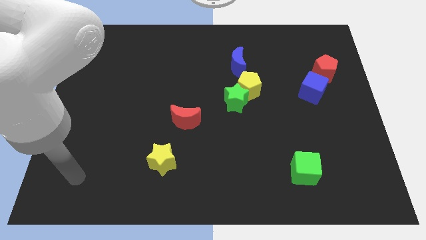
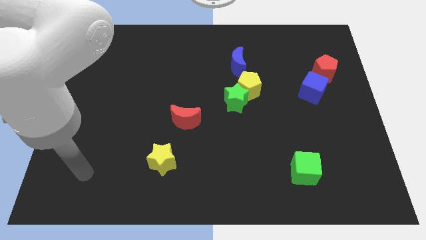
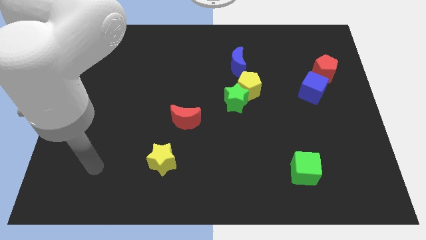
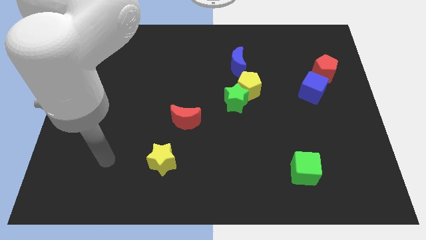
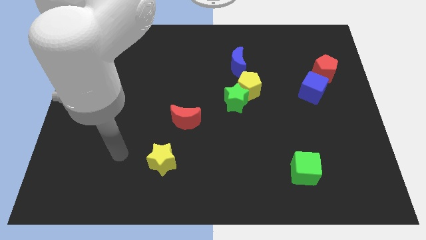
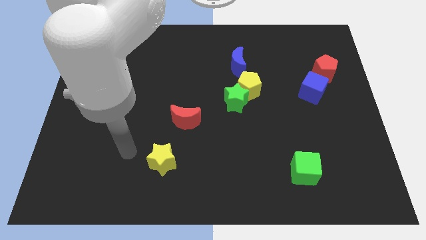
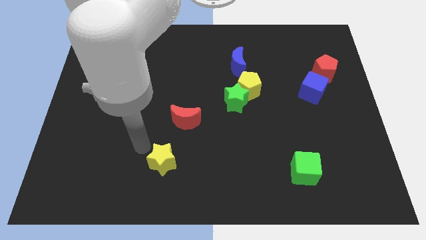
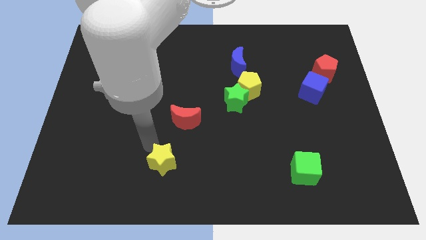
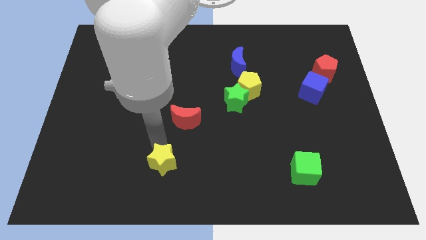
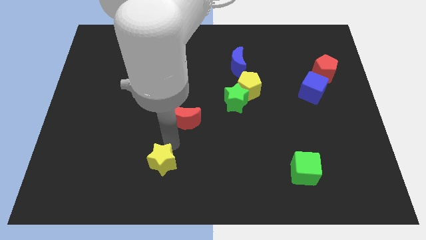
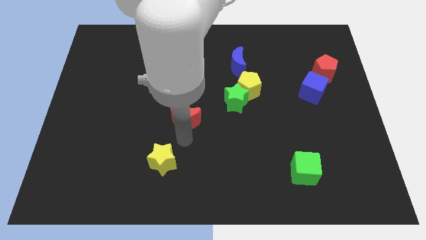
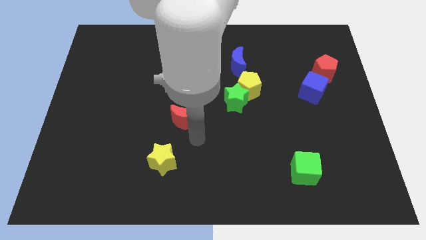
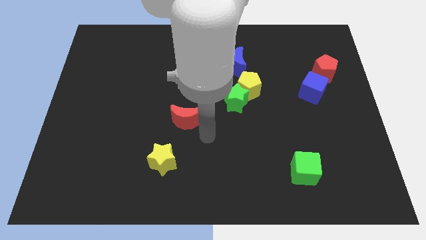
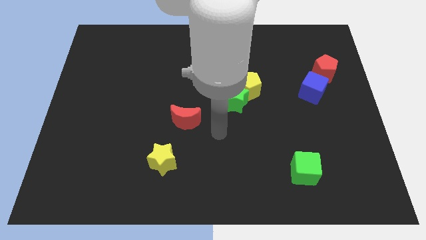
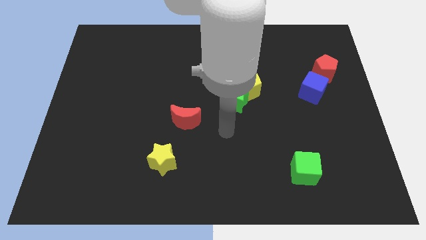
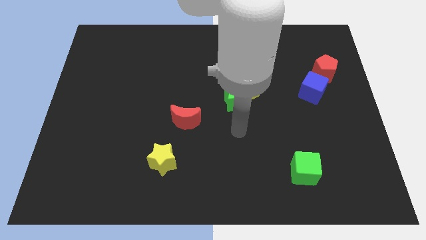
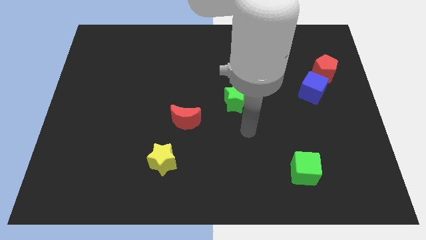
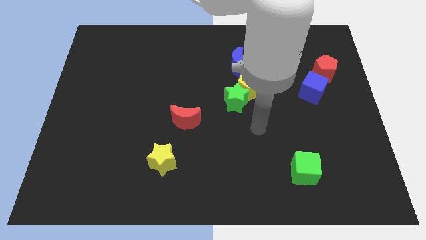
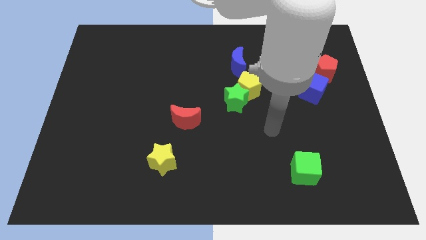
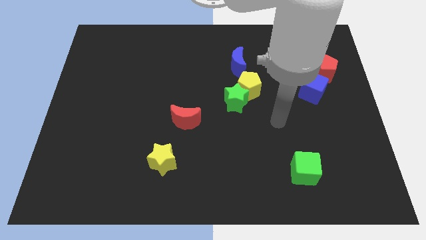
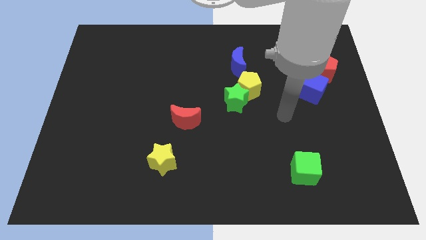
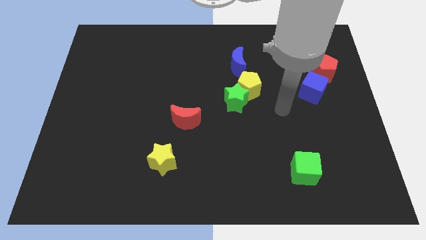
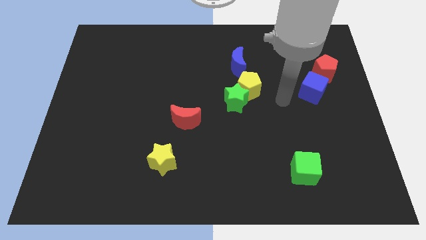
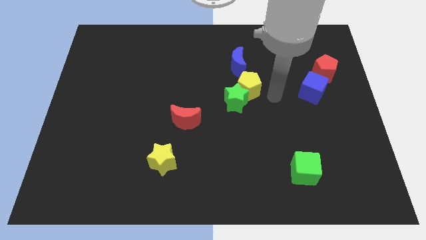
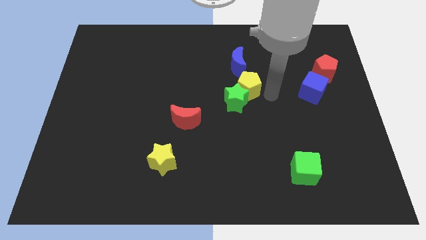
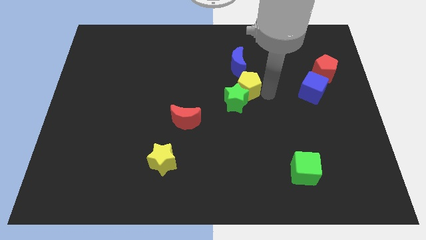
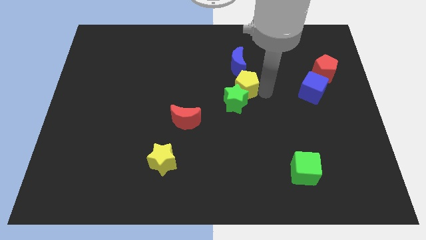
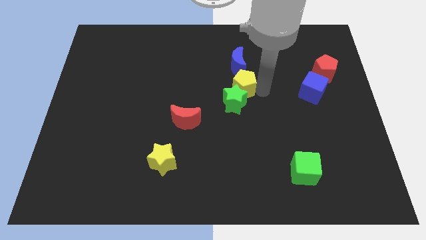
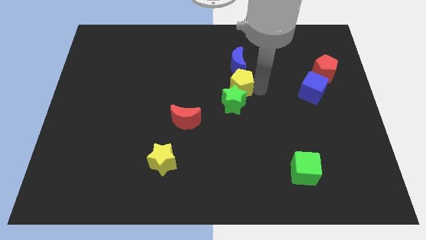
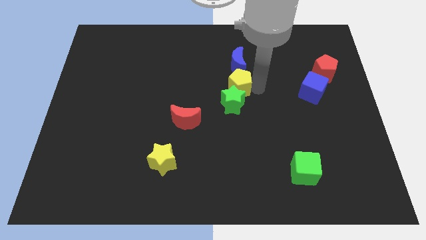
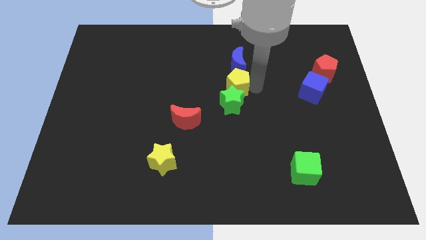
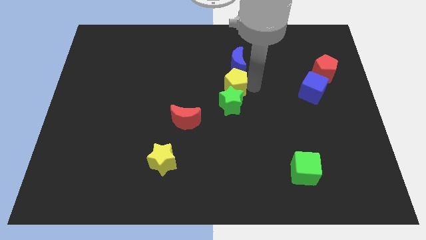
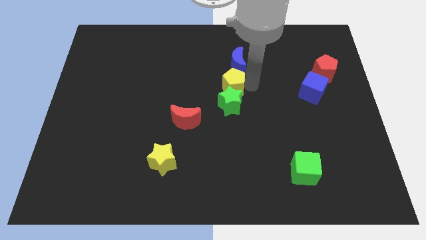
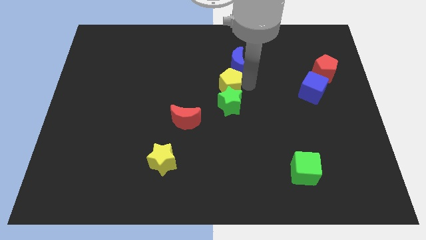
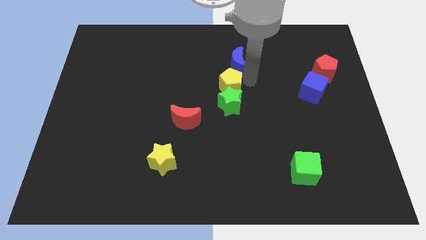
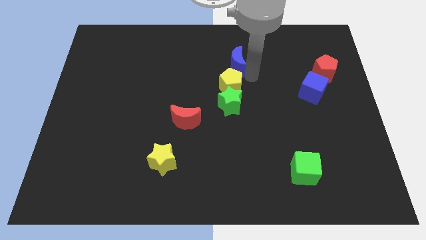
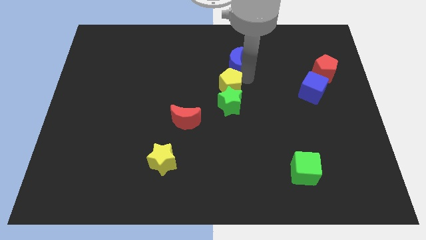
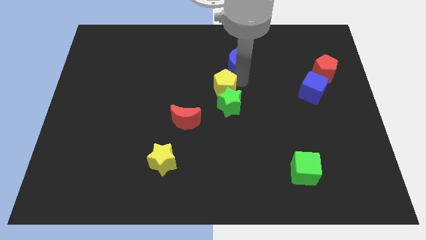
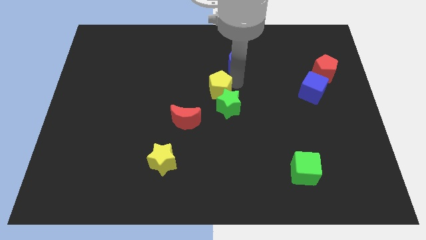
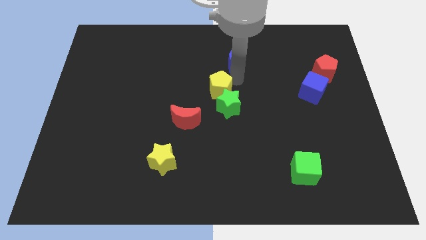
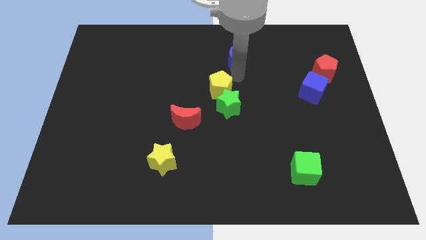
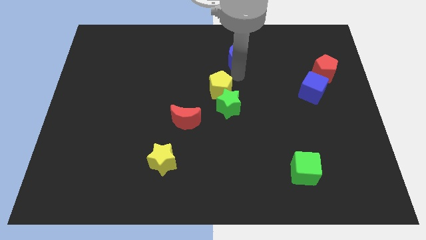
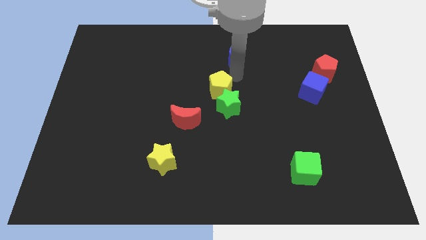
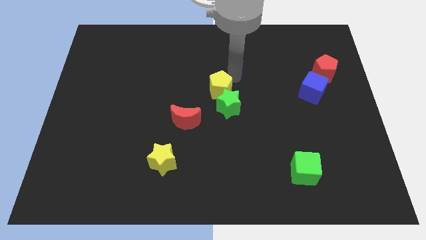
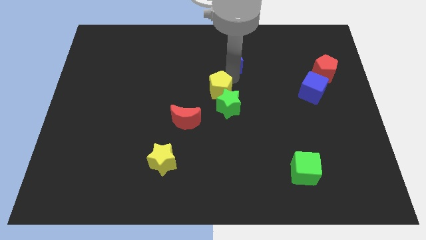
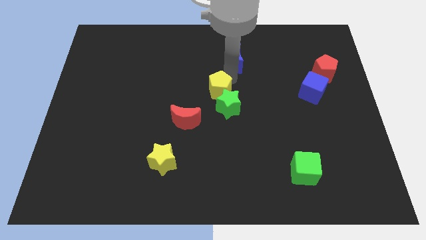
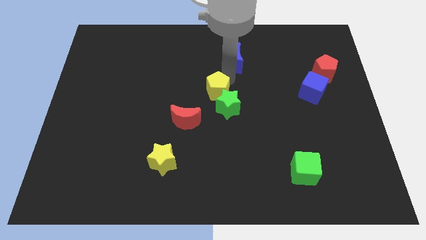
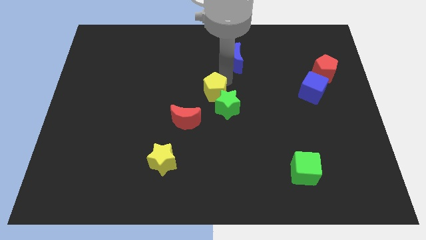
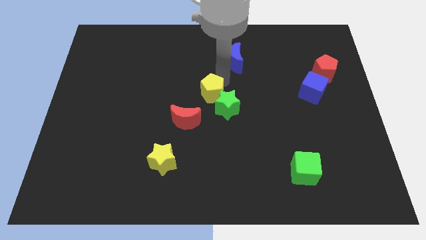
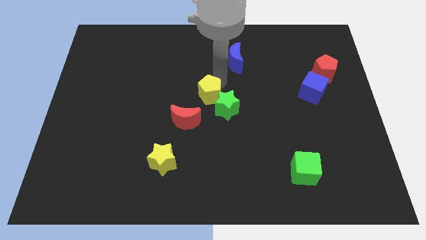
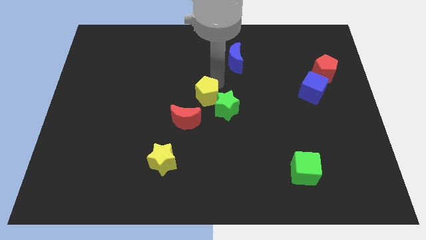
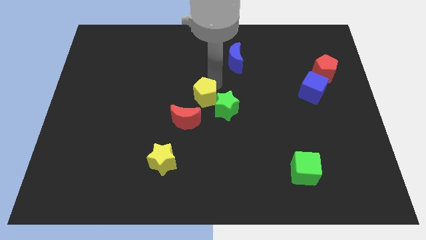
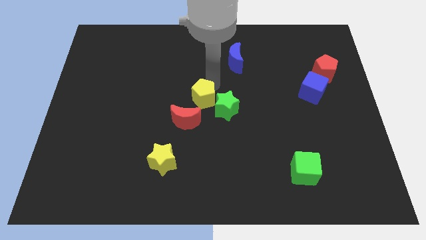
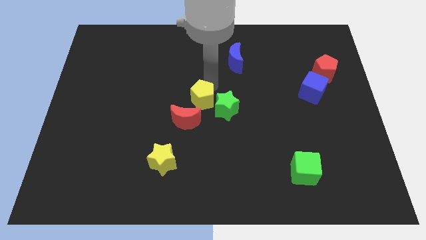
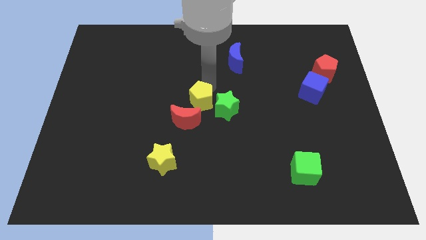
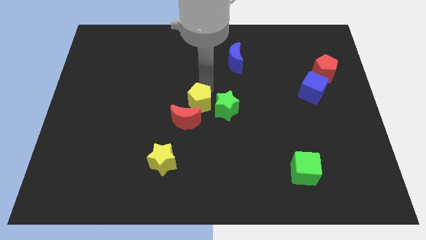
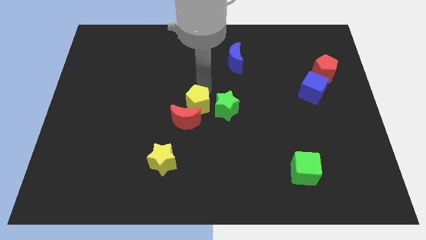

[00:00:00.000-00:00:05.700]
slide the yellow pentagon close to the red moon

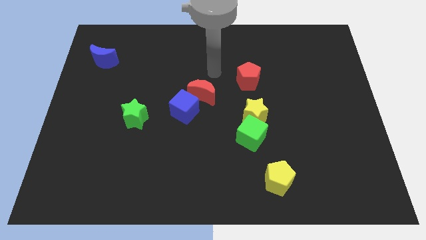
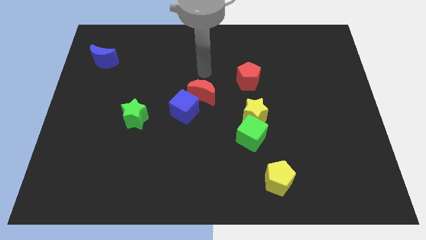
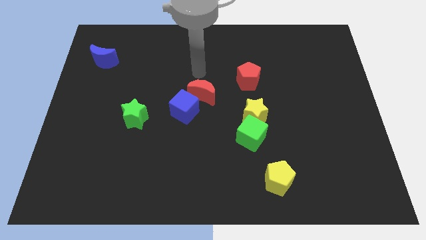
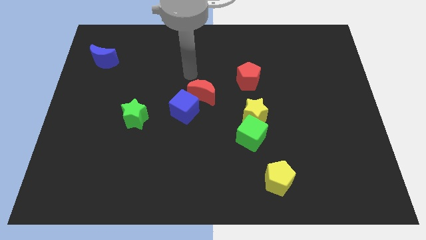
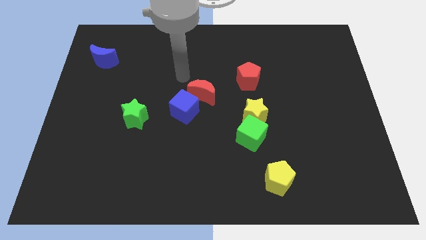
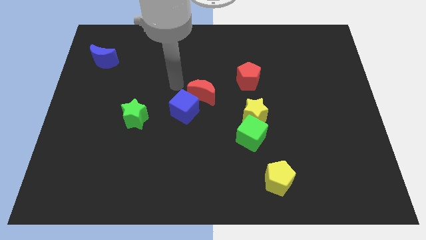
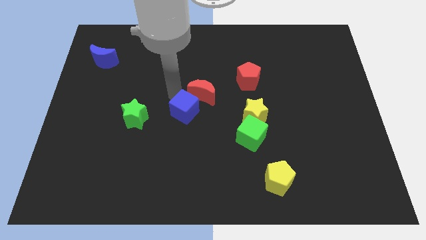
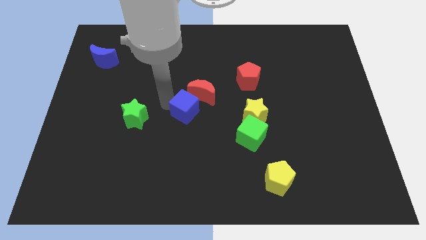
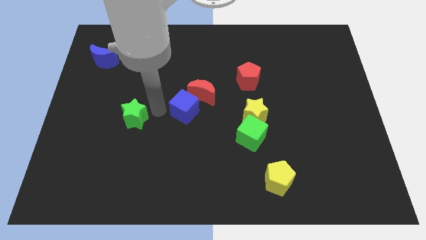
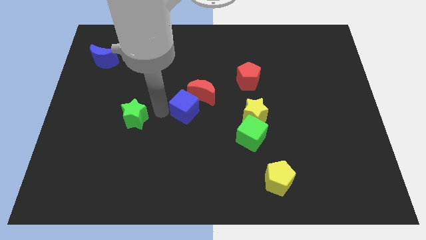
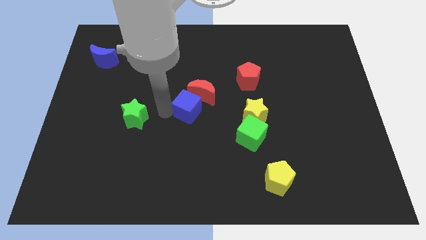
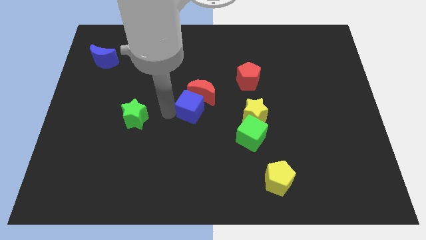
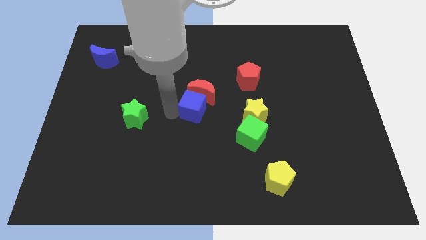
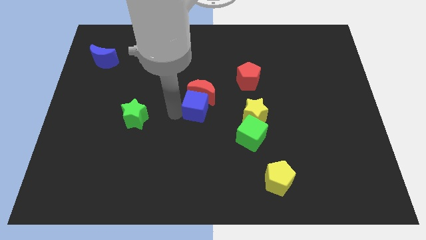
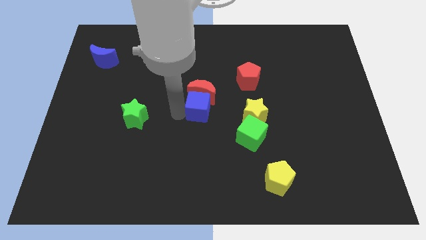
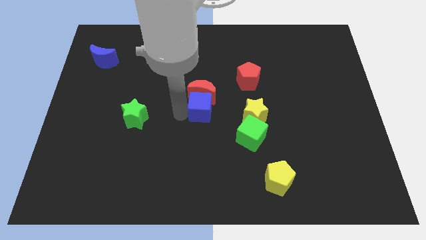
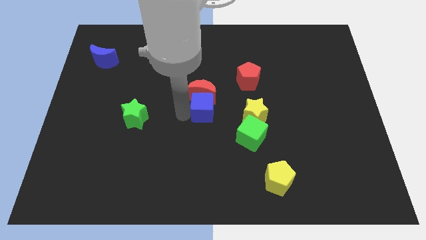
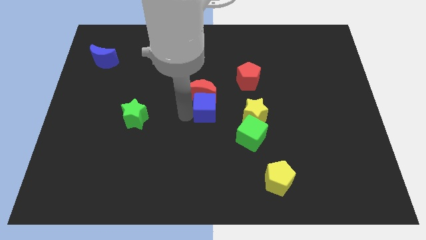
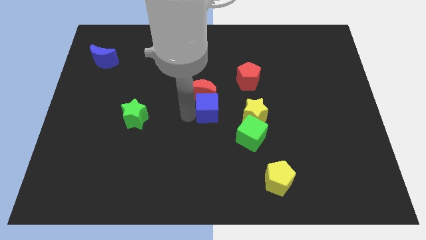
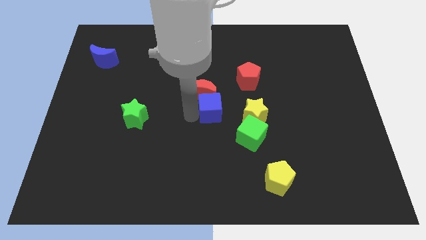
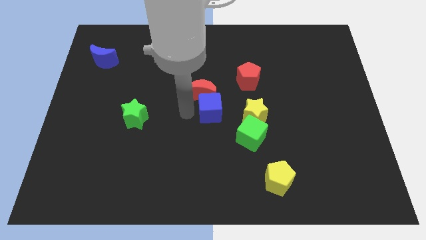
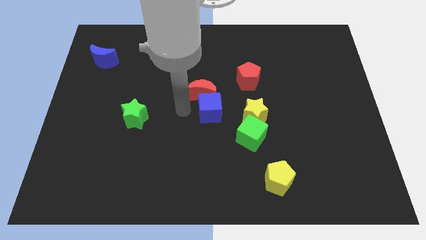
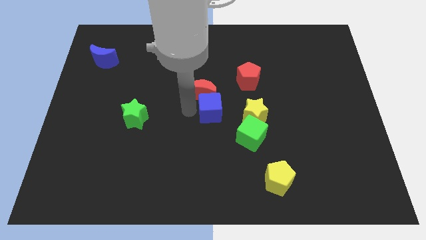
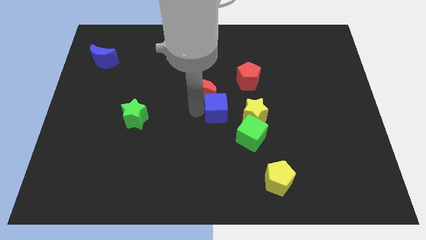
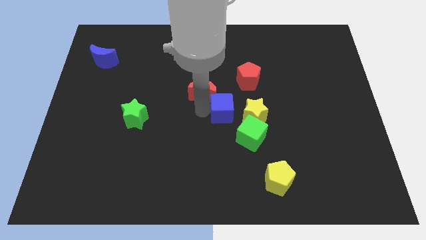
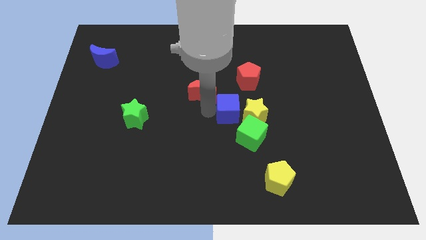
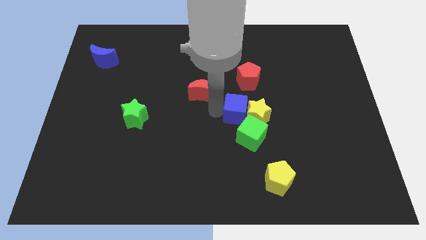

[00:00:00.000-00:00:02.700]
push the blue cube next to the yellow star
